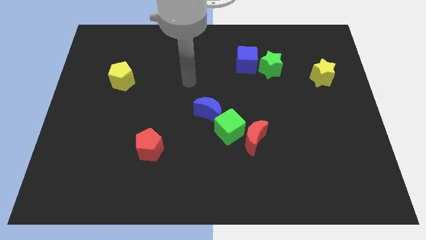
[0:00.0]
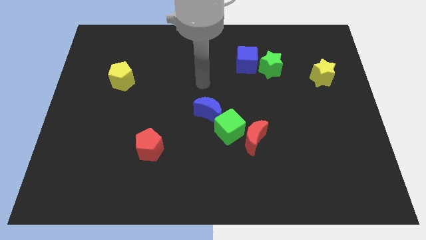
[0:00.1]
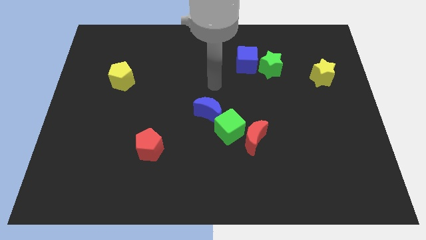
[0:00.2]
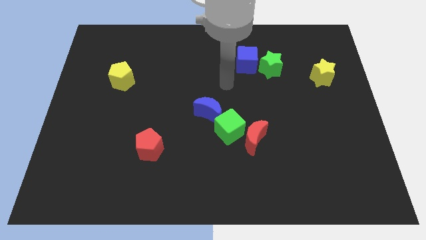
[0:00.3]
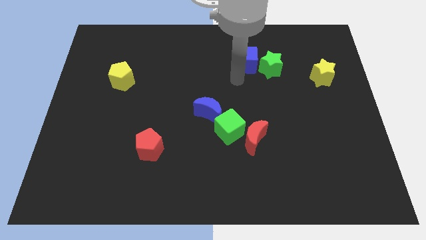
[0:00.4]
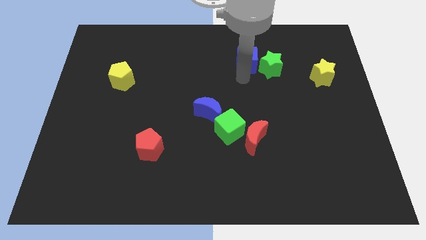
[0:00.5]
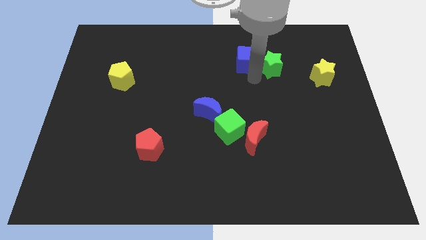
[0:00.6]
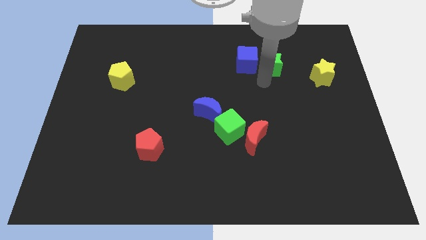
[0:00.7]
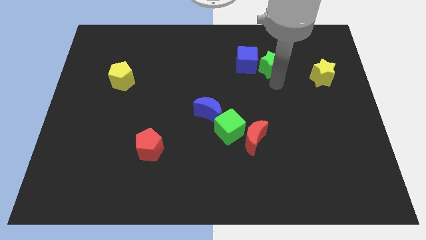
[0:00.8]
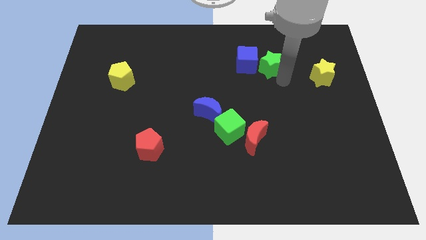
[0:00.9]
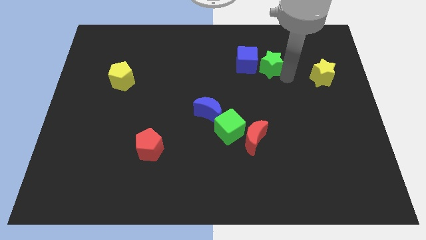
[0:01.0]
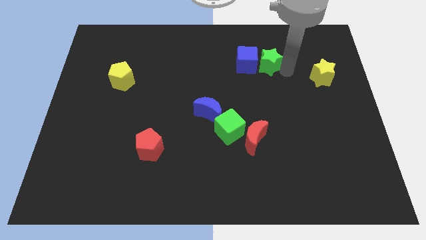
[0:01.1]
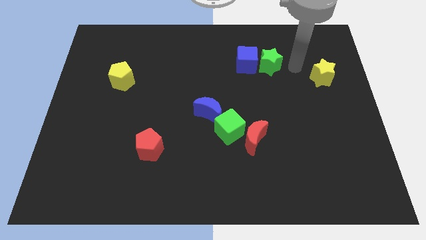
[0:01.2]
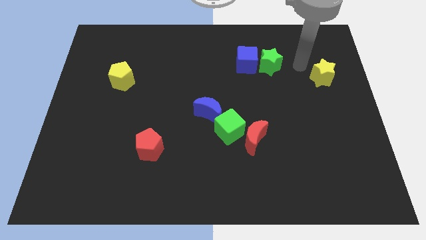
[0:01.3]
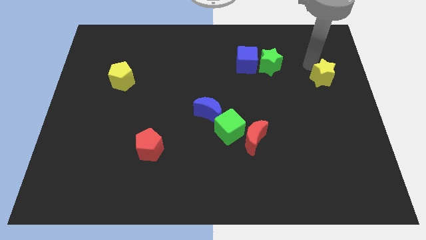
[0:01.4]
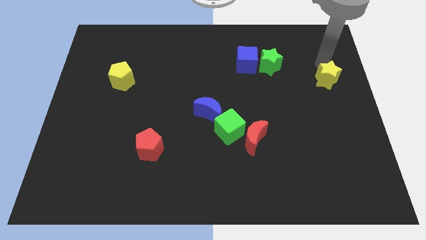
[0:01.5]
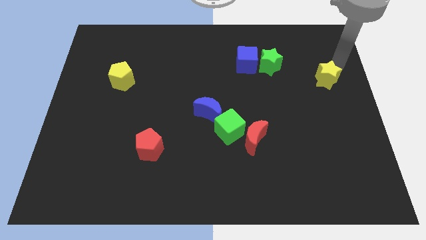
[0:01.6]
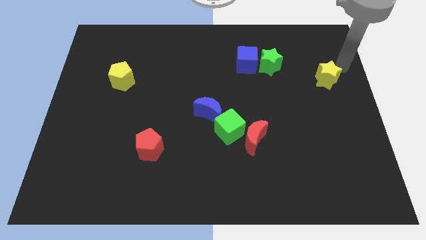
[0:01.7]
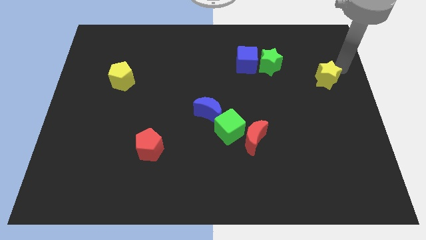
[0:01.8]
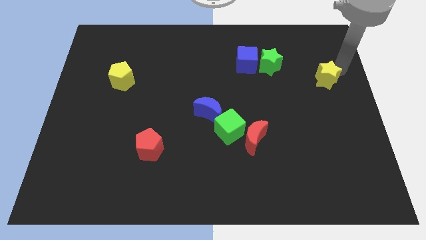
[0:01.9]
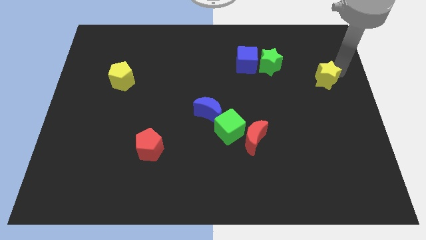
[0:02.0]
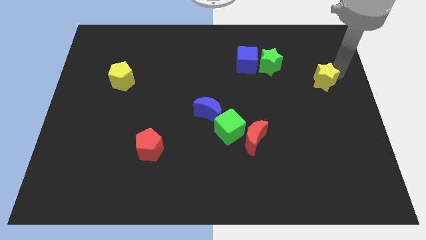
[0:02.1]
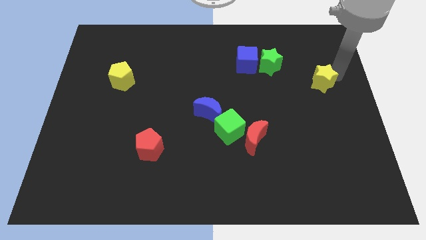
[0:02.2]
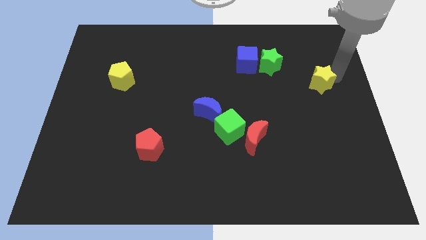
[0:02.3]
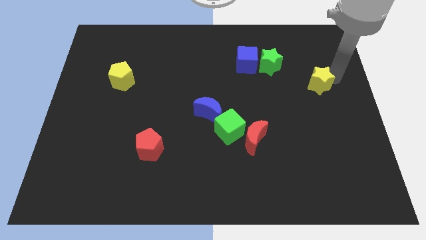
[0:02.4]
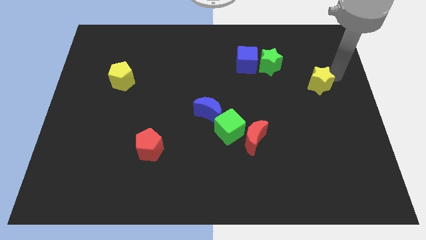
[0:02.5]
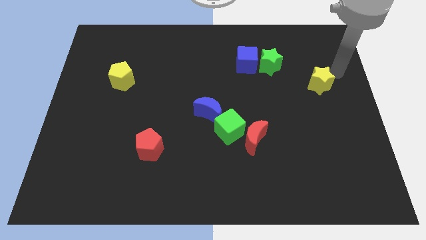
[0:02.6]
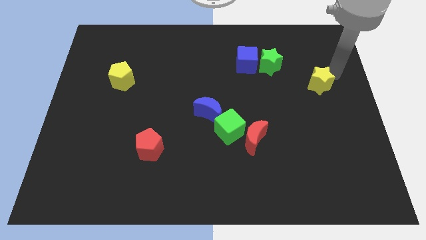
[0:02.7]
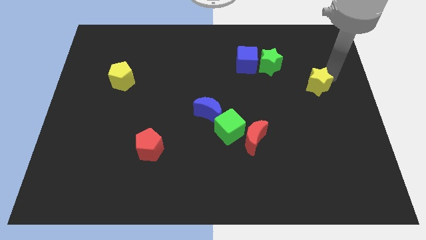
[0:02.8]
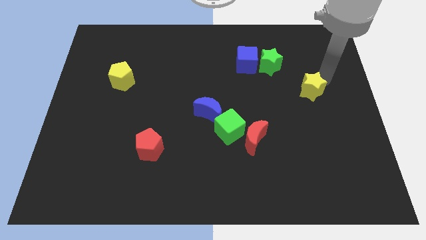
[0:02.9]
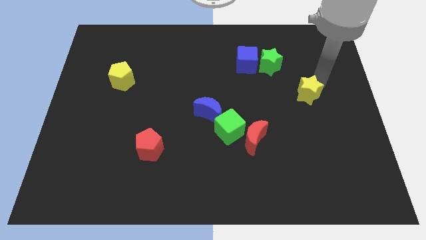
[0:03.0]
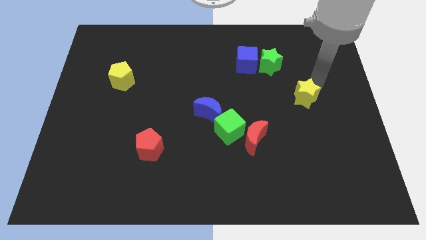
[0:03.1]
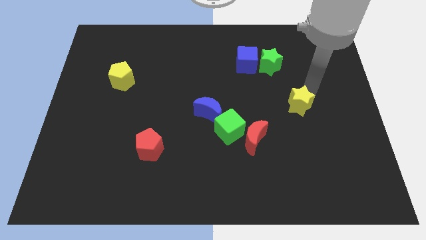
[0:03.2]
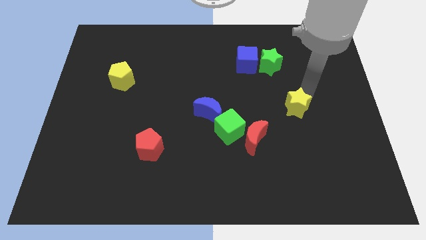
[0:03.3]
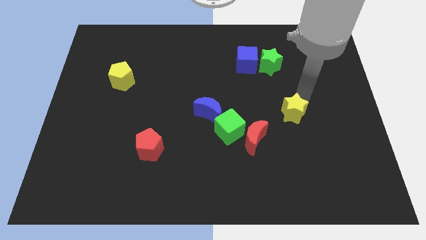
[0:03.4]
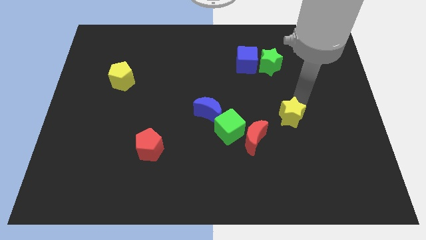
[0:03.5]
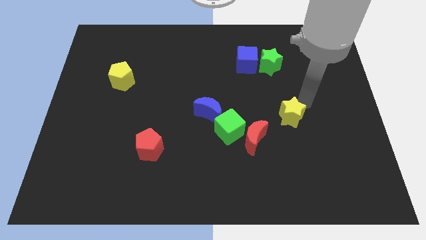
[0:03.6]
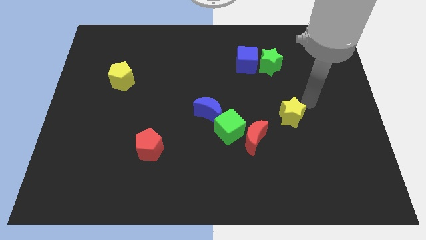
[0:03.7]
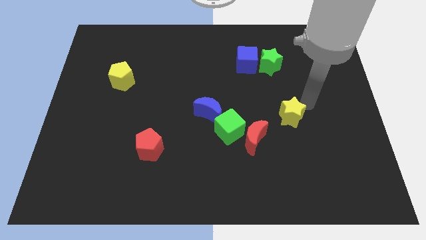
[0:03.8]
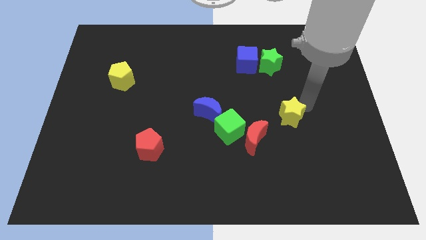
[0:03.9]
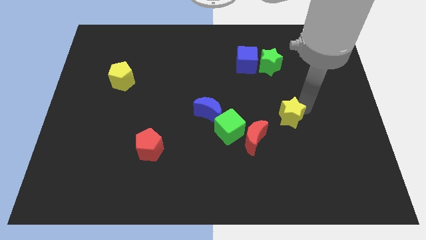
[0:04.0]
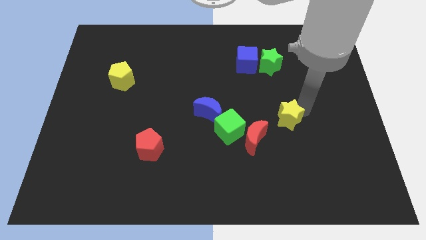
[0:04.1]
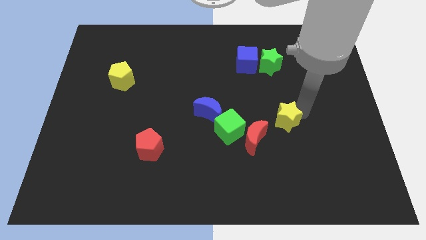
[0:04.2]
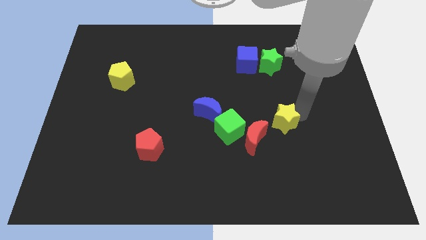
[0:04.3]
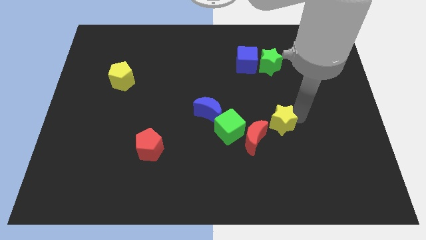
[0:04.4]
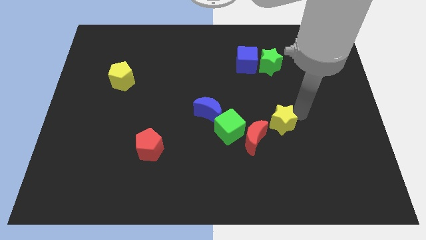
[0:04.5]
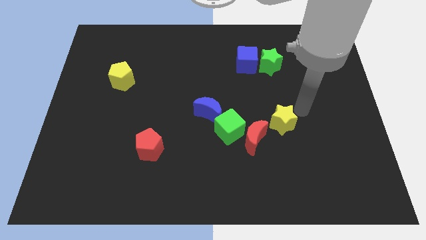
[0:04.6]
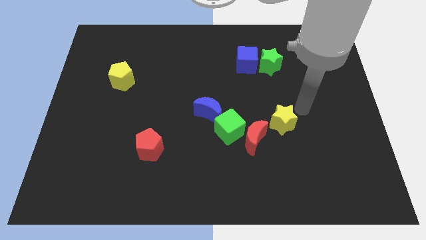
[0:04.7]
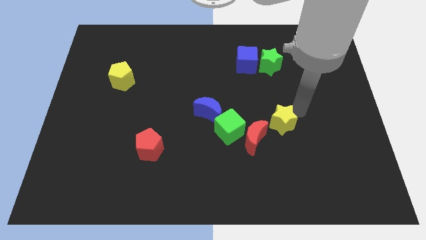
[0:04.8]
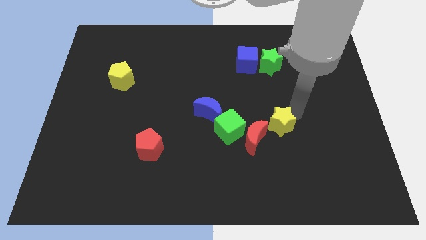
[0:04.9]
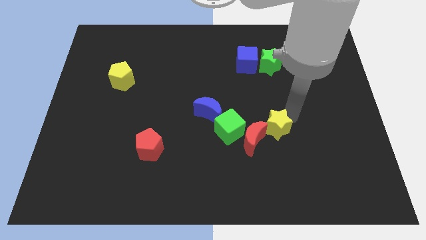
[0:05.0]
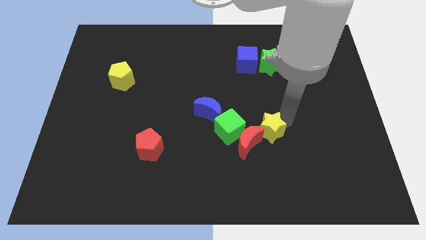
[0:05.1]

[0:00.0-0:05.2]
slide the yellow star towards the red moon

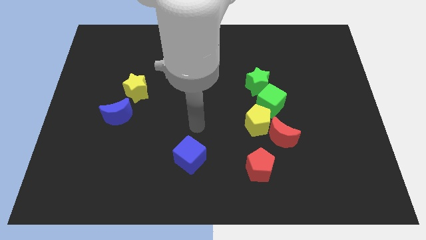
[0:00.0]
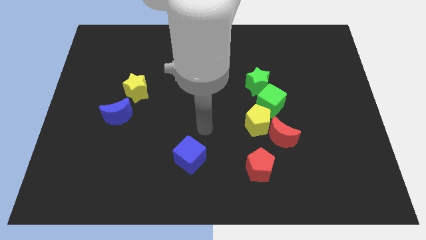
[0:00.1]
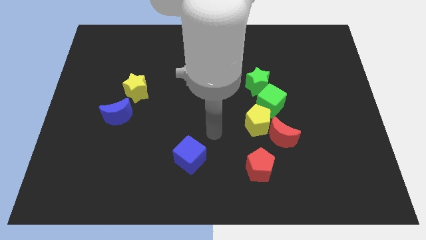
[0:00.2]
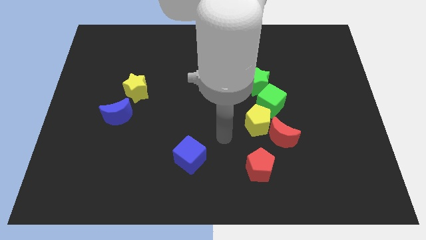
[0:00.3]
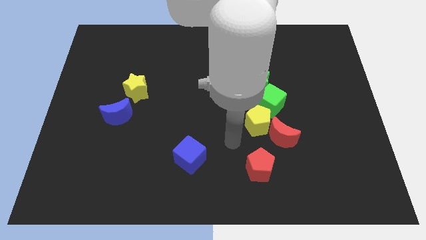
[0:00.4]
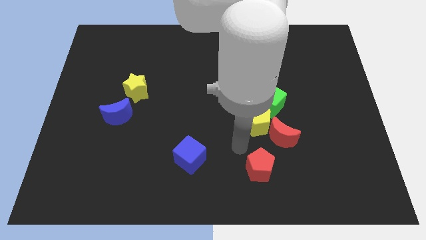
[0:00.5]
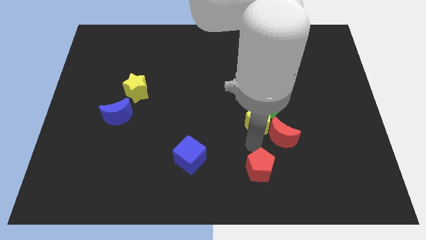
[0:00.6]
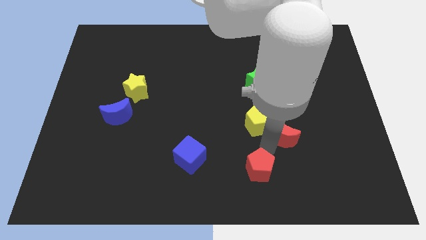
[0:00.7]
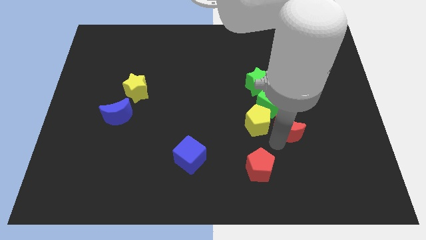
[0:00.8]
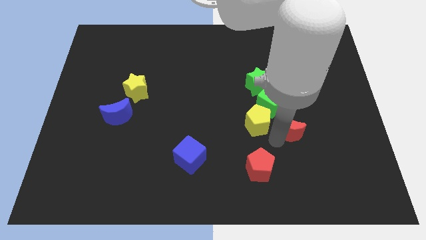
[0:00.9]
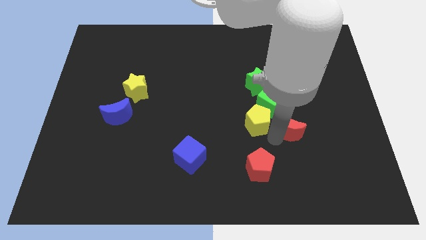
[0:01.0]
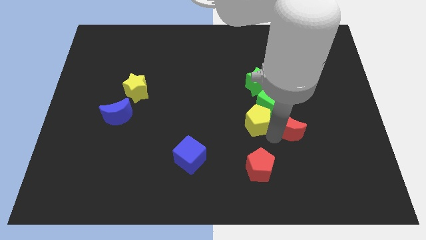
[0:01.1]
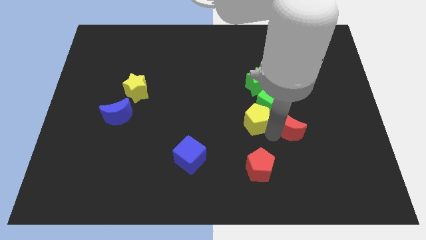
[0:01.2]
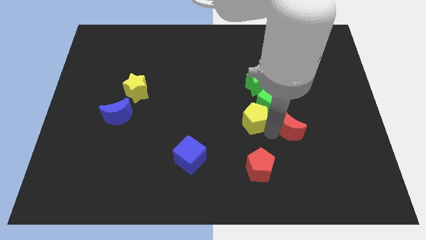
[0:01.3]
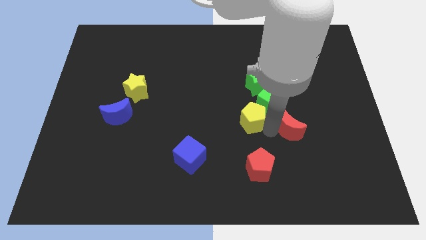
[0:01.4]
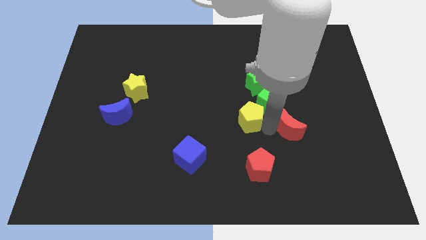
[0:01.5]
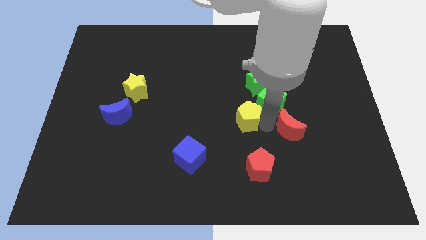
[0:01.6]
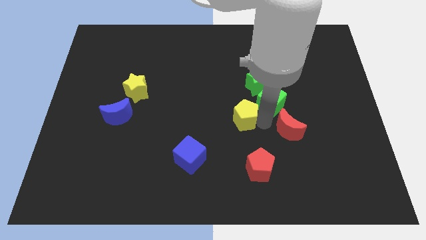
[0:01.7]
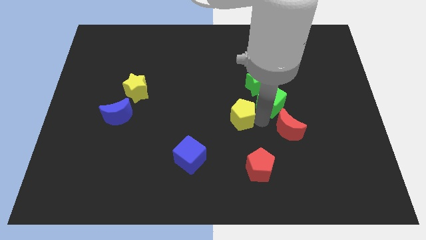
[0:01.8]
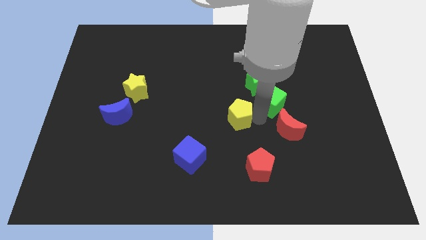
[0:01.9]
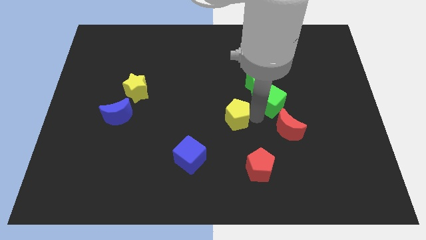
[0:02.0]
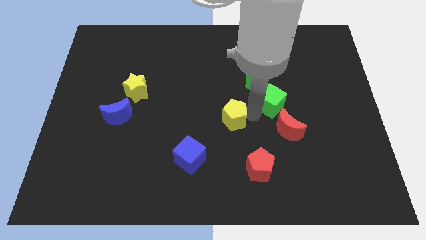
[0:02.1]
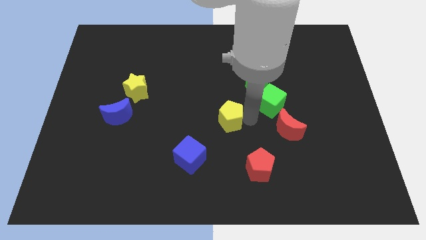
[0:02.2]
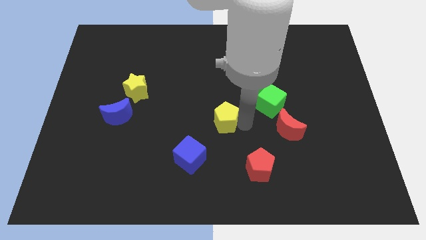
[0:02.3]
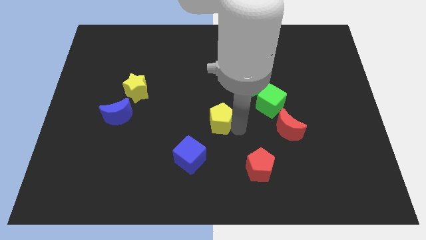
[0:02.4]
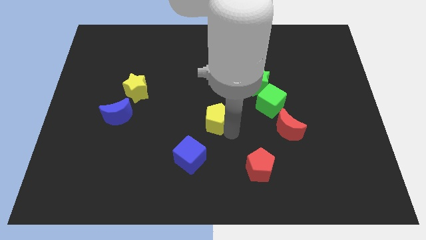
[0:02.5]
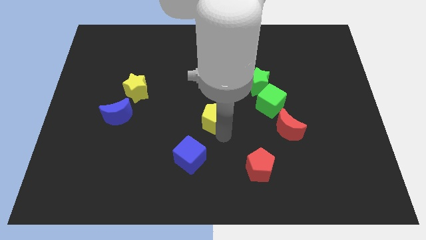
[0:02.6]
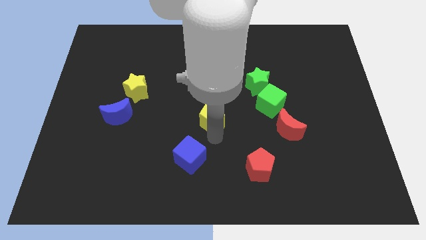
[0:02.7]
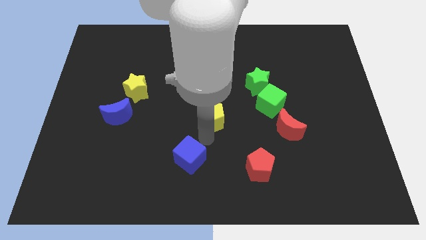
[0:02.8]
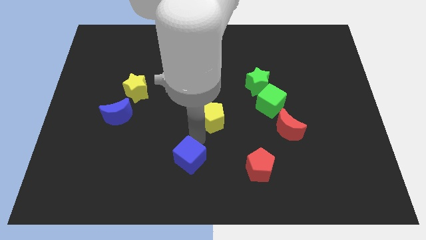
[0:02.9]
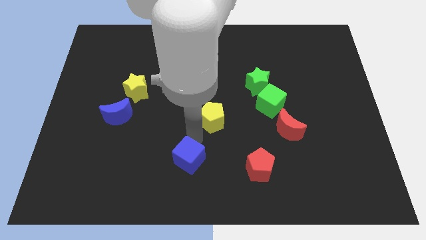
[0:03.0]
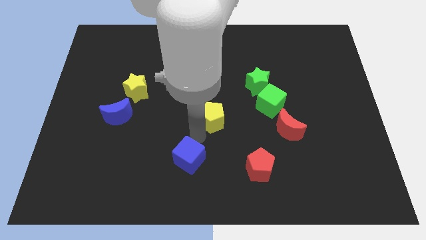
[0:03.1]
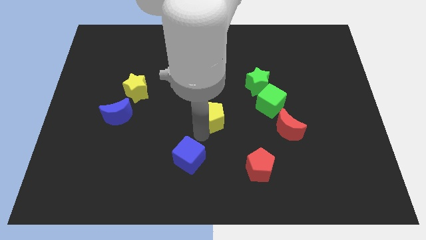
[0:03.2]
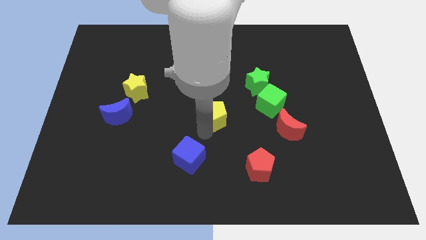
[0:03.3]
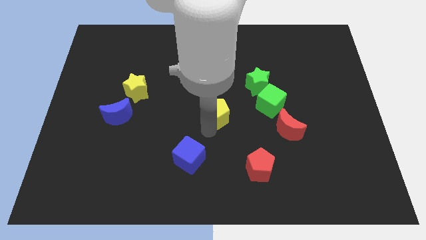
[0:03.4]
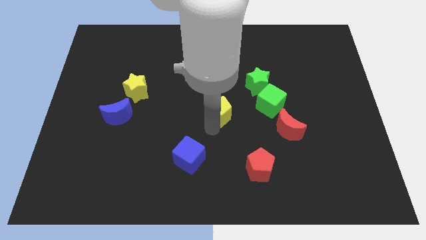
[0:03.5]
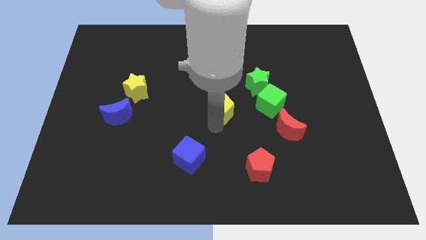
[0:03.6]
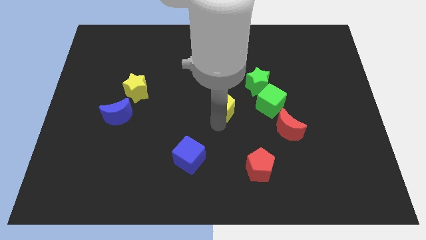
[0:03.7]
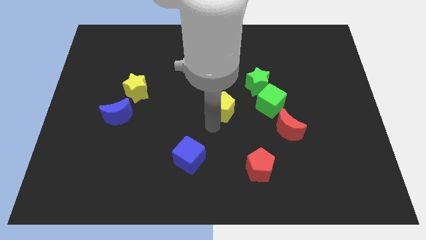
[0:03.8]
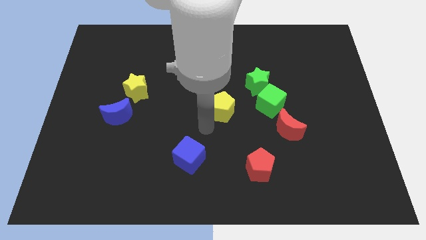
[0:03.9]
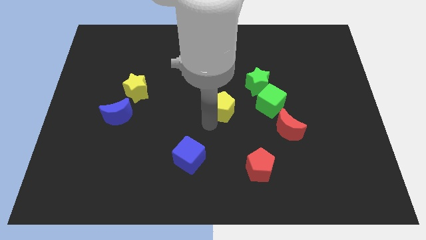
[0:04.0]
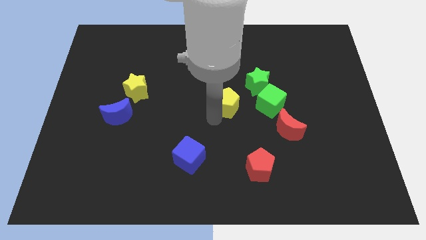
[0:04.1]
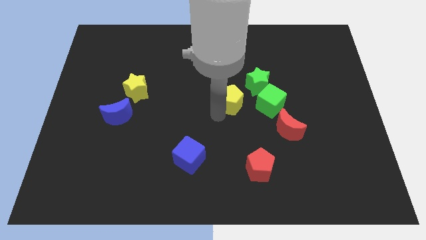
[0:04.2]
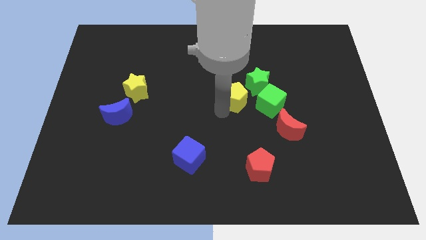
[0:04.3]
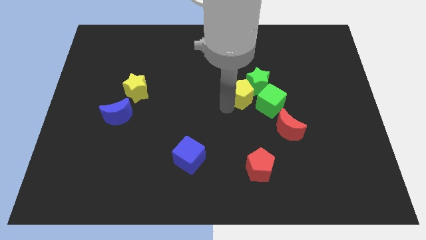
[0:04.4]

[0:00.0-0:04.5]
push the yellow pentagon next to the green star
